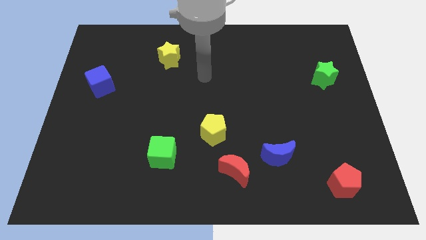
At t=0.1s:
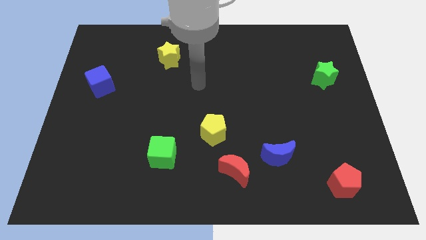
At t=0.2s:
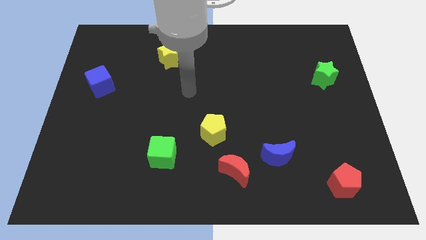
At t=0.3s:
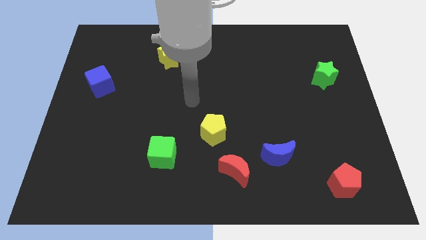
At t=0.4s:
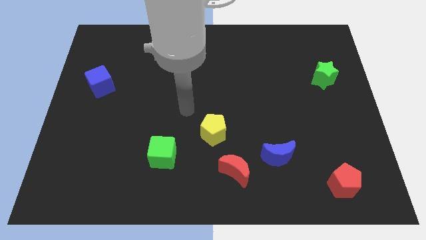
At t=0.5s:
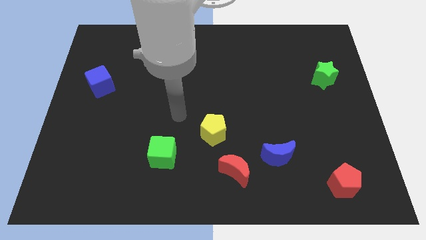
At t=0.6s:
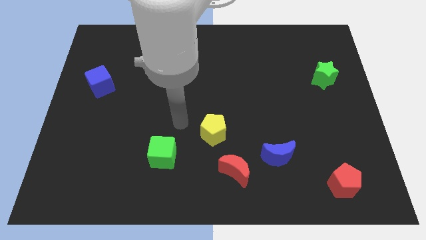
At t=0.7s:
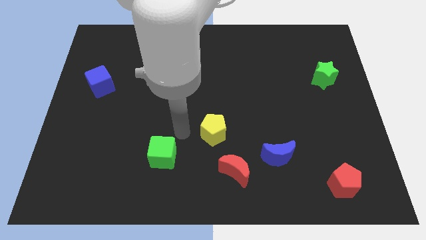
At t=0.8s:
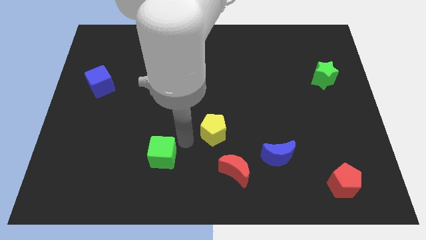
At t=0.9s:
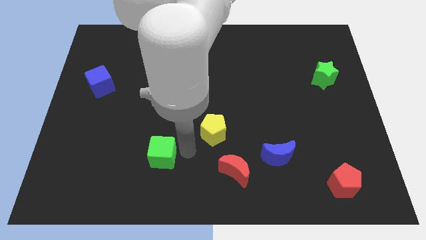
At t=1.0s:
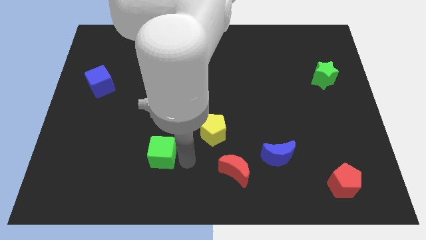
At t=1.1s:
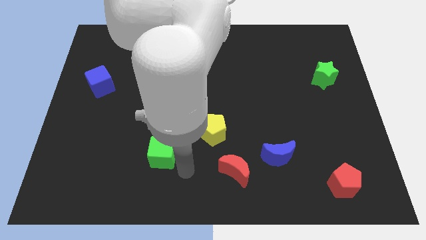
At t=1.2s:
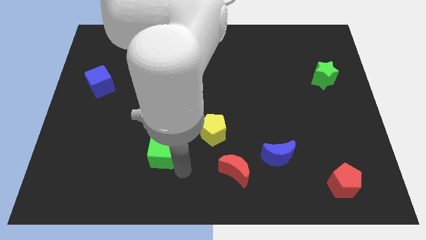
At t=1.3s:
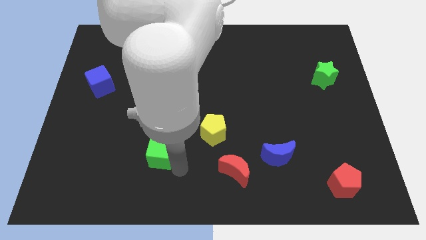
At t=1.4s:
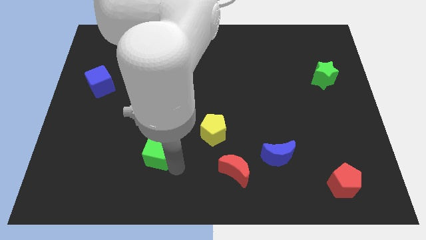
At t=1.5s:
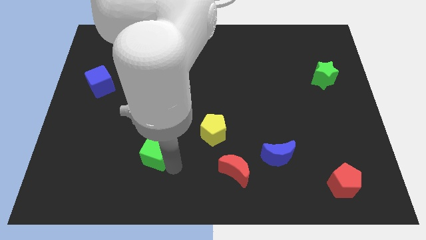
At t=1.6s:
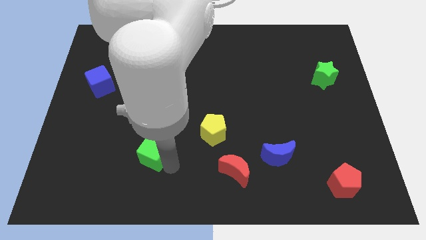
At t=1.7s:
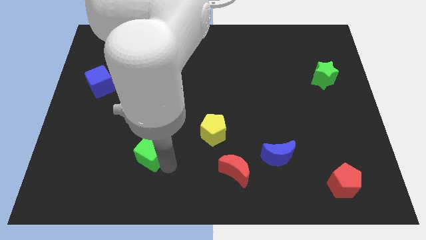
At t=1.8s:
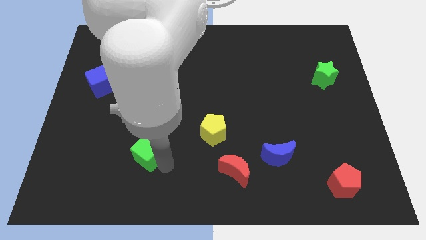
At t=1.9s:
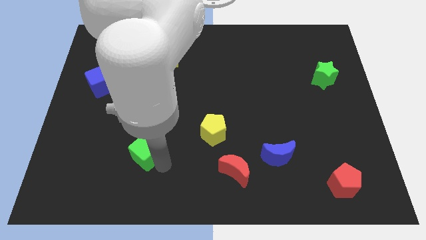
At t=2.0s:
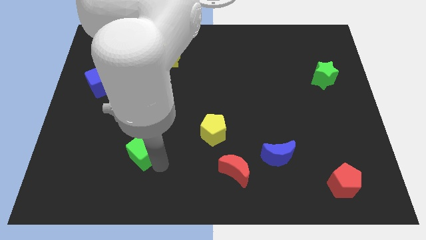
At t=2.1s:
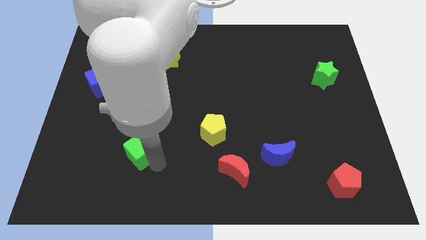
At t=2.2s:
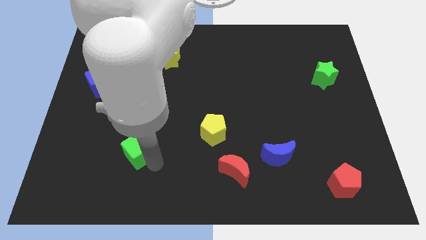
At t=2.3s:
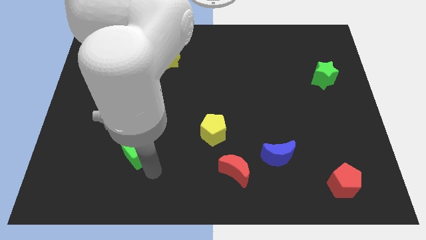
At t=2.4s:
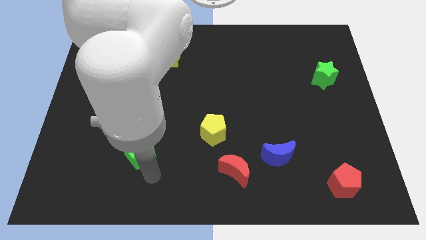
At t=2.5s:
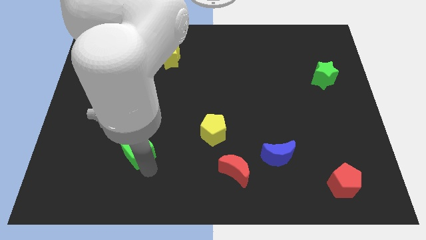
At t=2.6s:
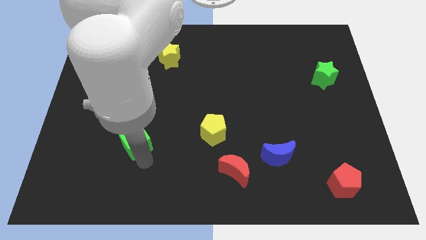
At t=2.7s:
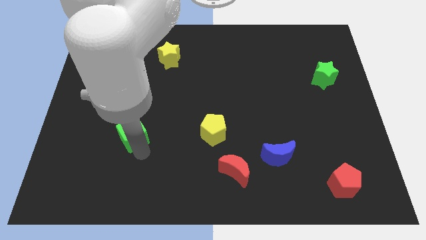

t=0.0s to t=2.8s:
push the green cube diagonally up and to the left slightly

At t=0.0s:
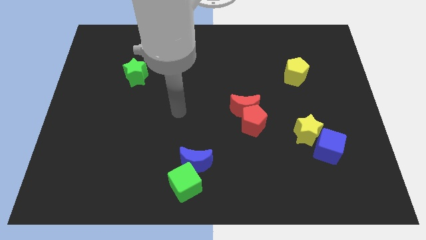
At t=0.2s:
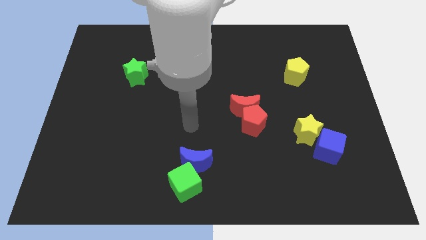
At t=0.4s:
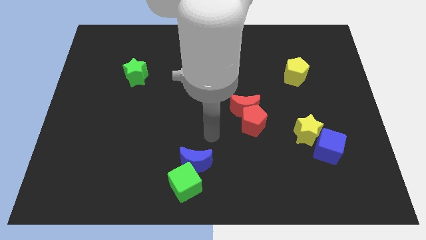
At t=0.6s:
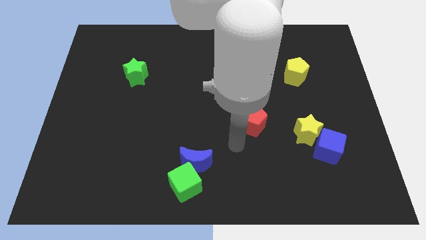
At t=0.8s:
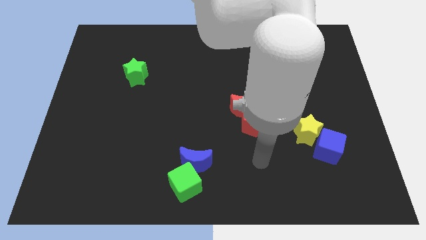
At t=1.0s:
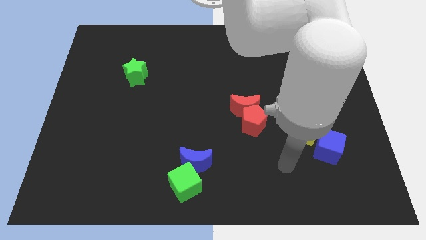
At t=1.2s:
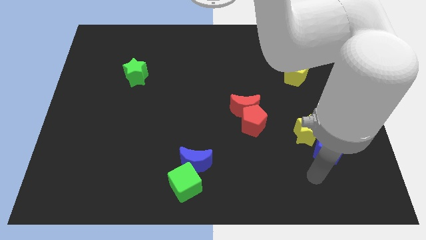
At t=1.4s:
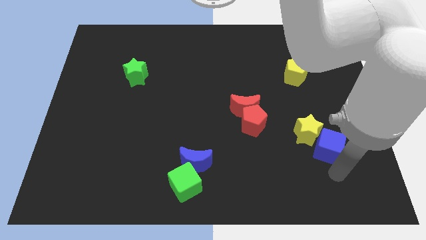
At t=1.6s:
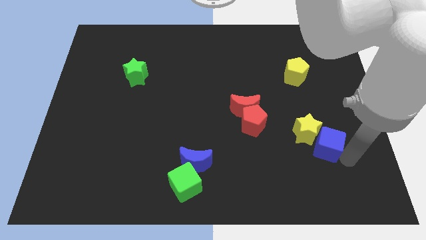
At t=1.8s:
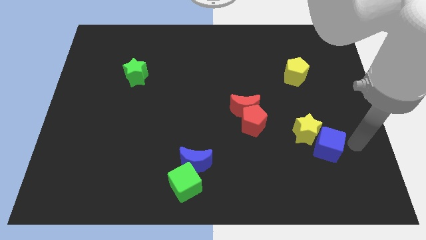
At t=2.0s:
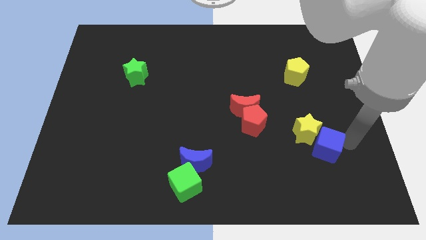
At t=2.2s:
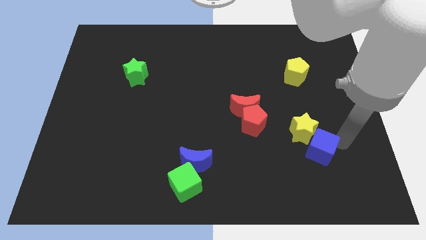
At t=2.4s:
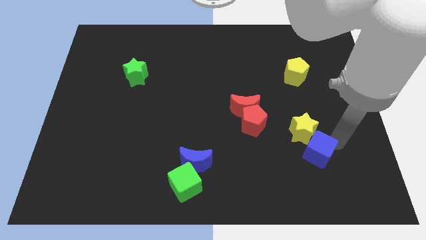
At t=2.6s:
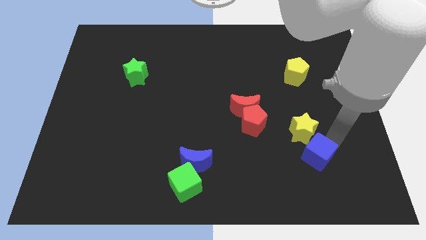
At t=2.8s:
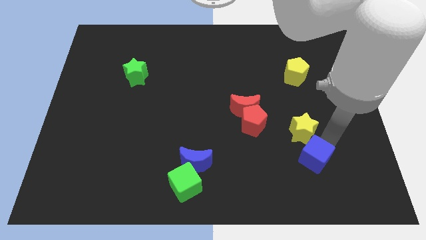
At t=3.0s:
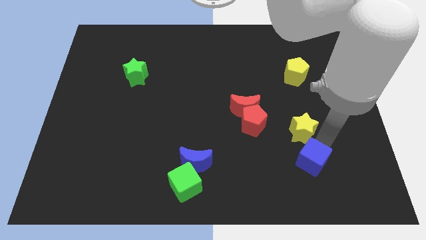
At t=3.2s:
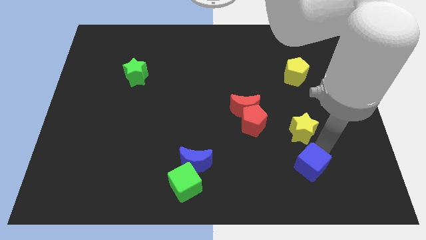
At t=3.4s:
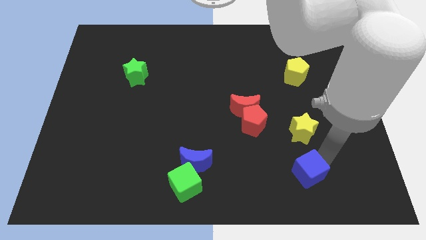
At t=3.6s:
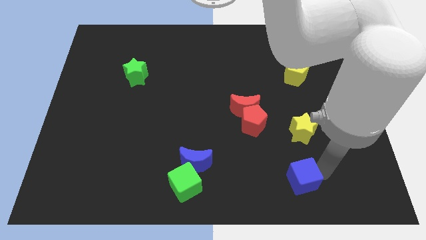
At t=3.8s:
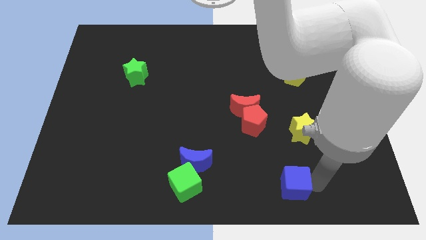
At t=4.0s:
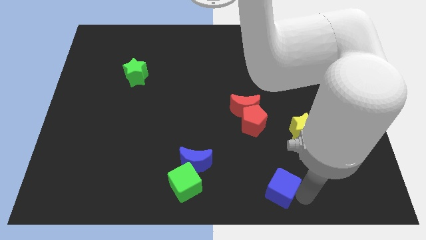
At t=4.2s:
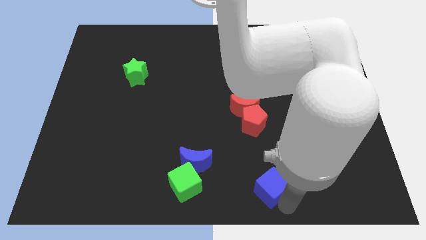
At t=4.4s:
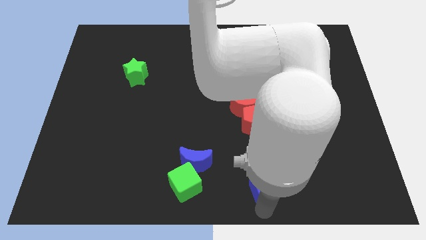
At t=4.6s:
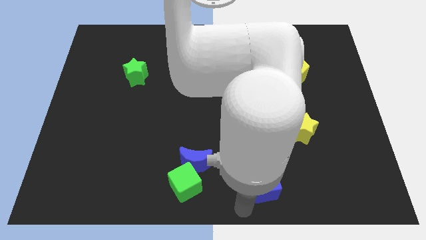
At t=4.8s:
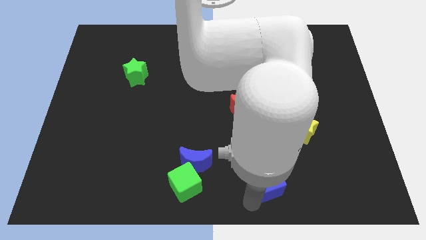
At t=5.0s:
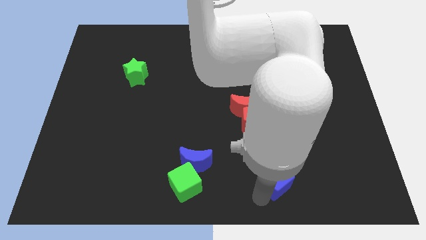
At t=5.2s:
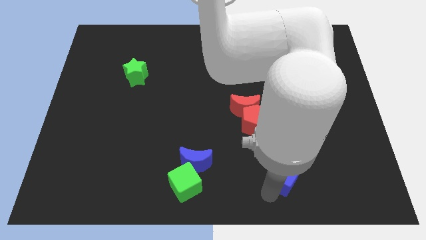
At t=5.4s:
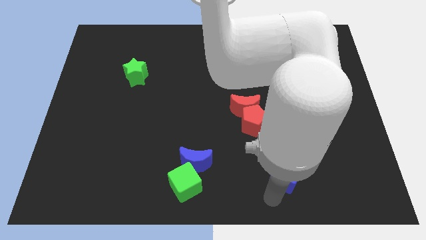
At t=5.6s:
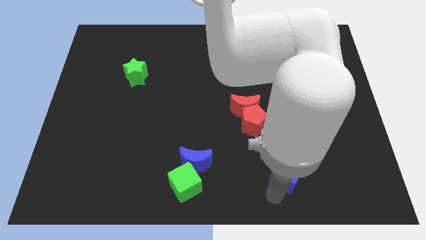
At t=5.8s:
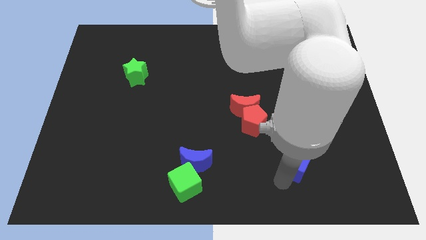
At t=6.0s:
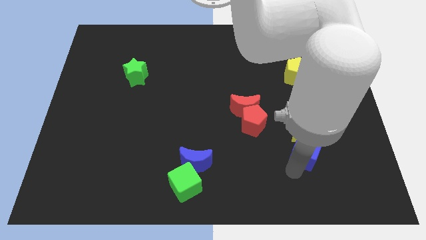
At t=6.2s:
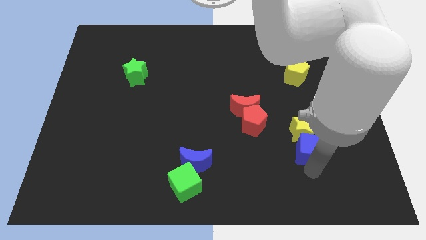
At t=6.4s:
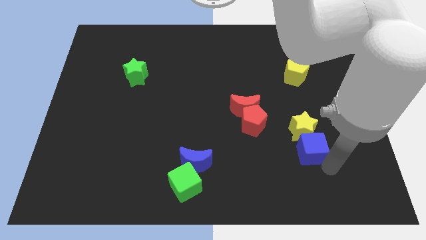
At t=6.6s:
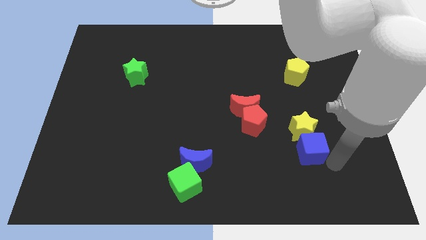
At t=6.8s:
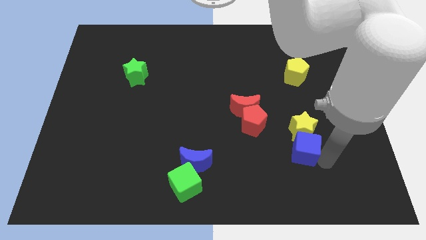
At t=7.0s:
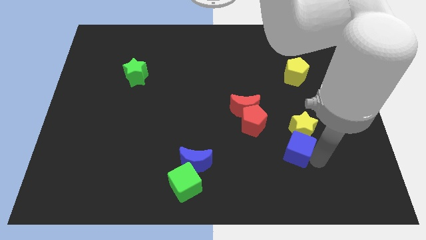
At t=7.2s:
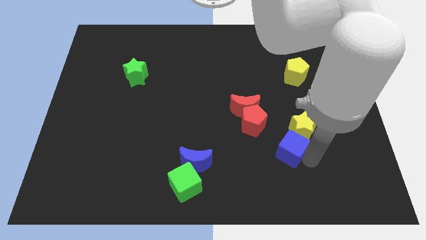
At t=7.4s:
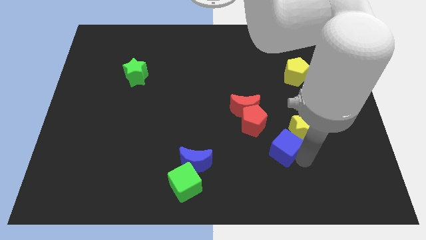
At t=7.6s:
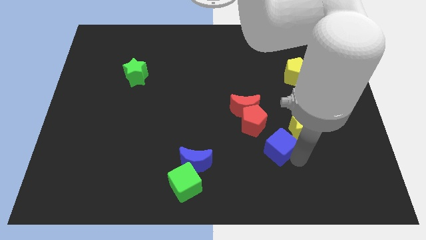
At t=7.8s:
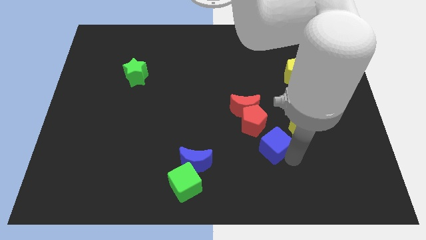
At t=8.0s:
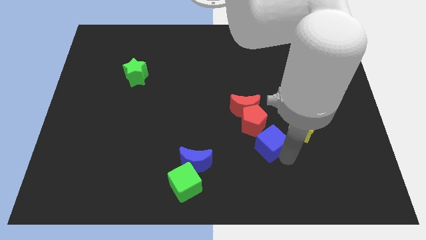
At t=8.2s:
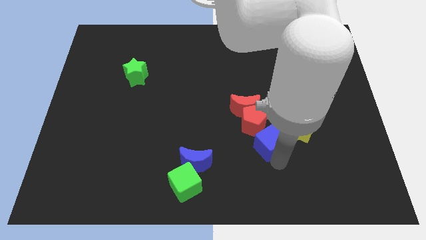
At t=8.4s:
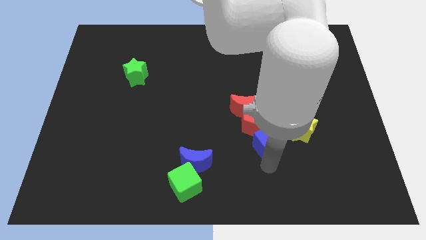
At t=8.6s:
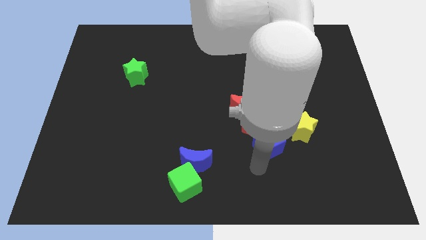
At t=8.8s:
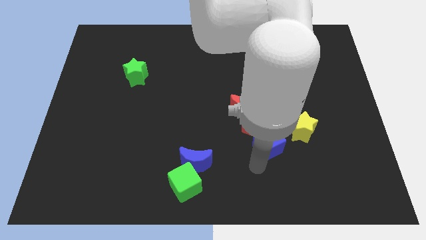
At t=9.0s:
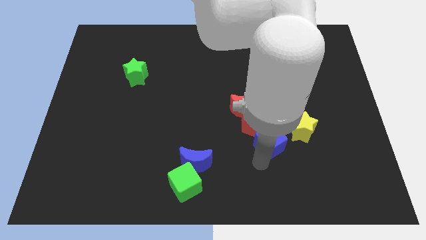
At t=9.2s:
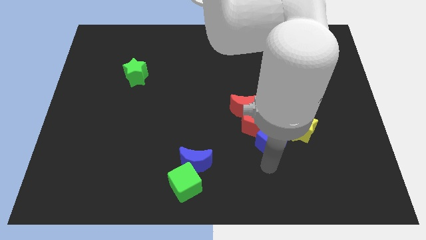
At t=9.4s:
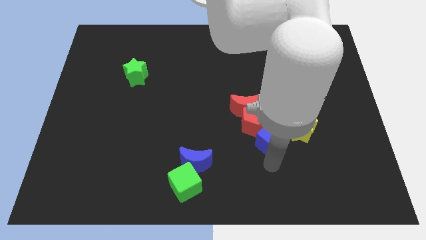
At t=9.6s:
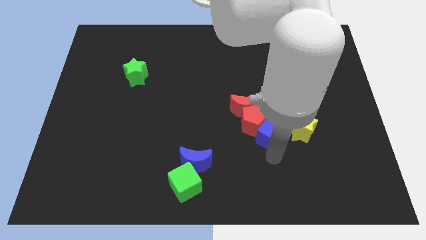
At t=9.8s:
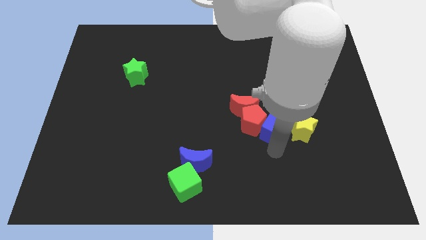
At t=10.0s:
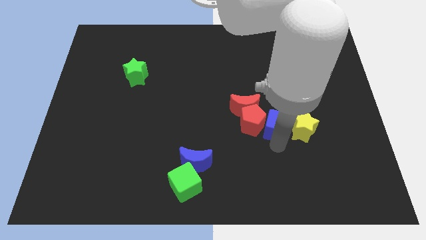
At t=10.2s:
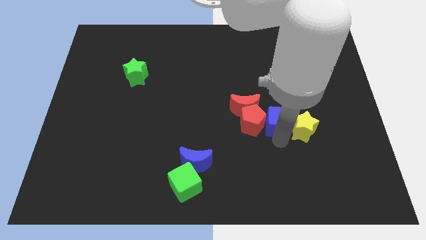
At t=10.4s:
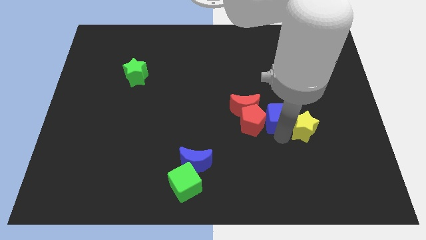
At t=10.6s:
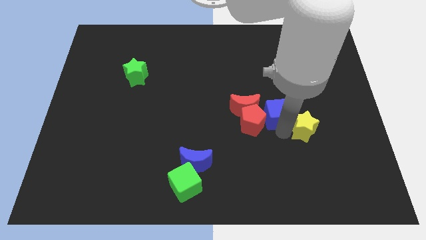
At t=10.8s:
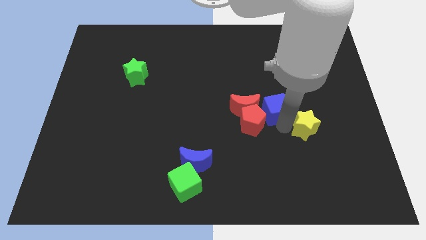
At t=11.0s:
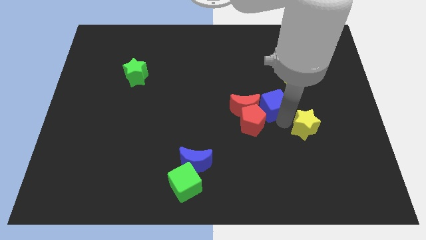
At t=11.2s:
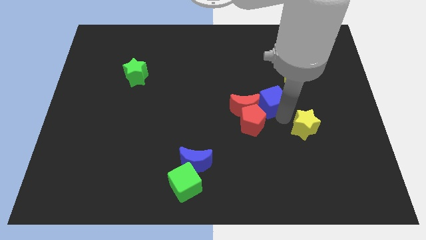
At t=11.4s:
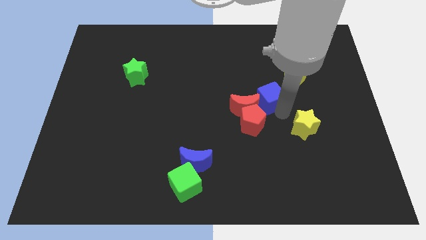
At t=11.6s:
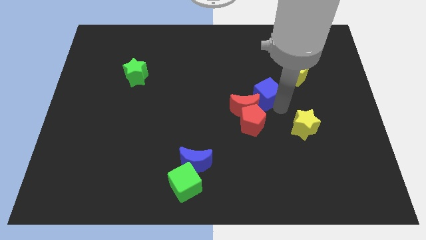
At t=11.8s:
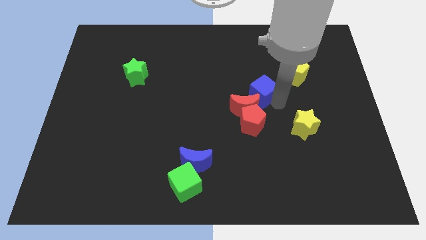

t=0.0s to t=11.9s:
move the blue cube diagonally up and to the left
